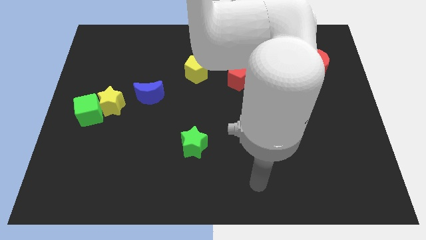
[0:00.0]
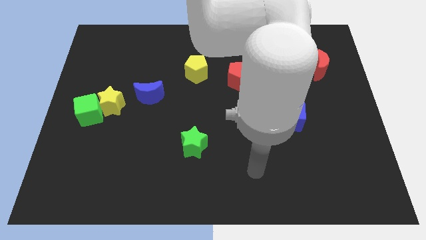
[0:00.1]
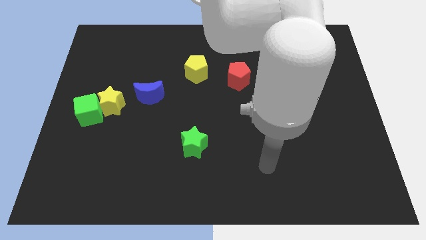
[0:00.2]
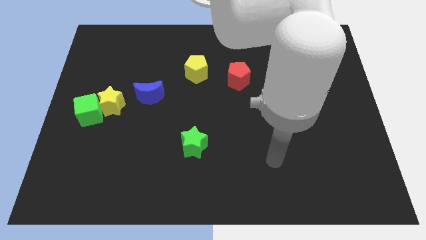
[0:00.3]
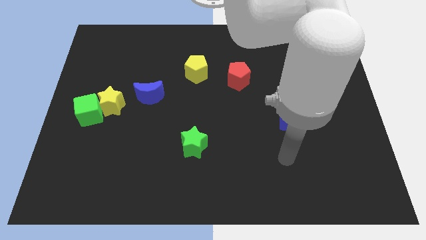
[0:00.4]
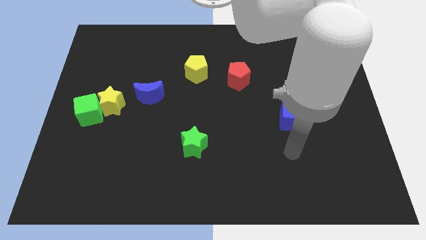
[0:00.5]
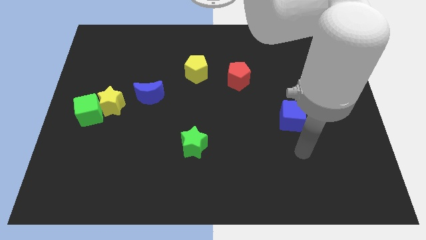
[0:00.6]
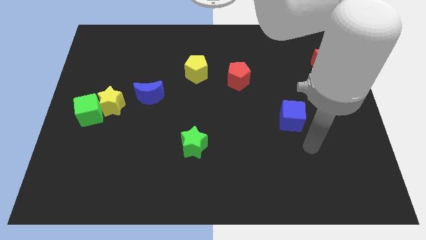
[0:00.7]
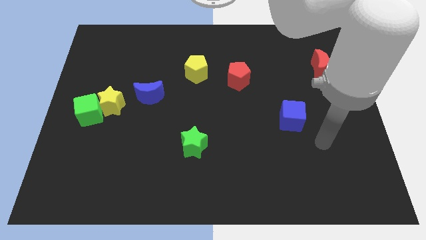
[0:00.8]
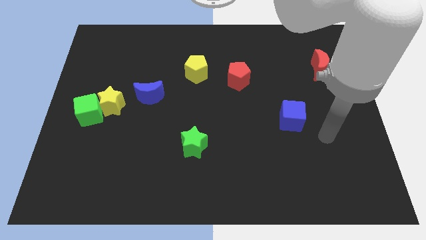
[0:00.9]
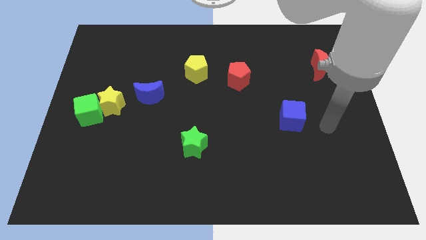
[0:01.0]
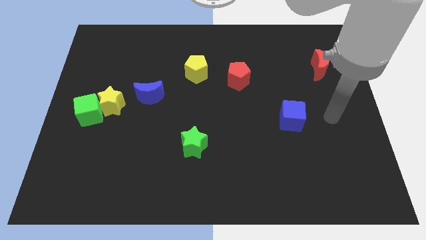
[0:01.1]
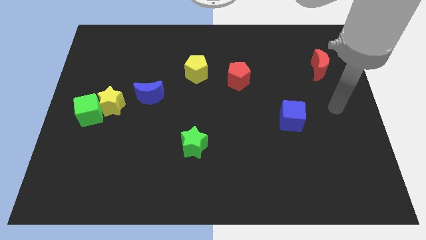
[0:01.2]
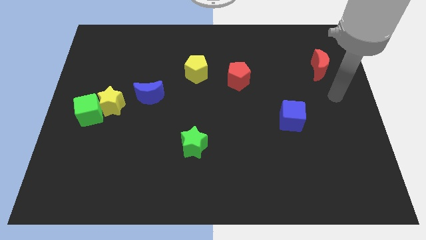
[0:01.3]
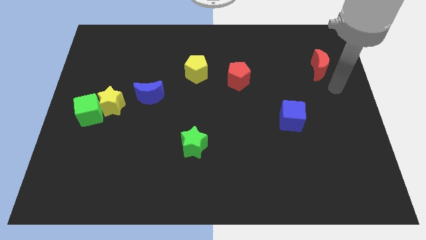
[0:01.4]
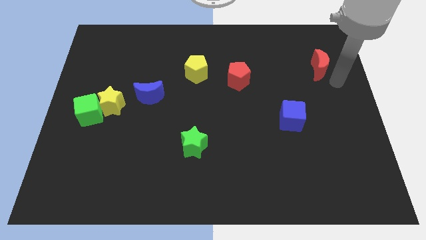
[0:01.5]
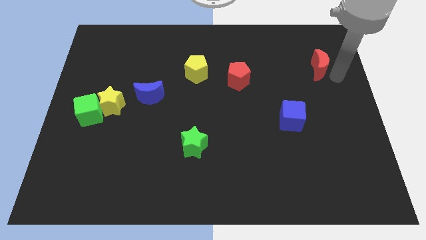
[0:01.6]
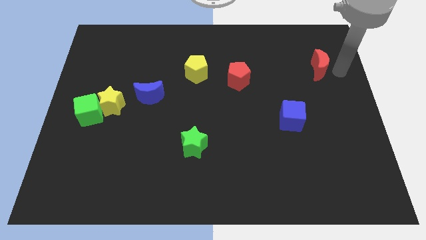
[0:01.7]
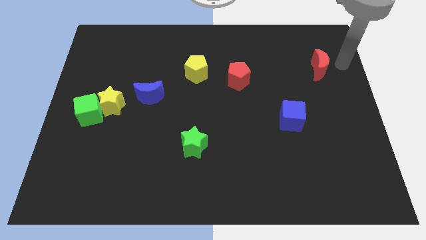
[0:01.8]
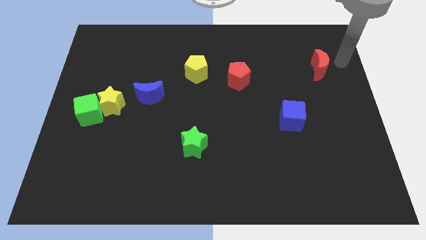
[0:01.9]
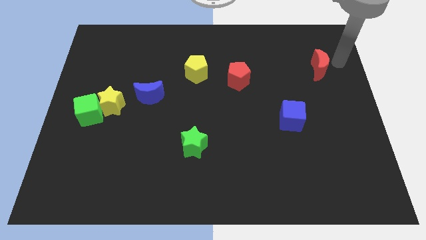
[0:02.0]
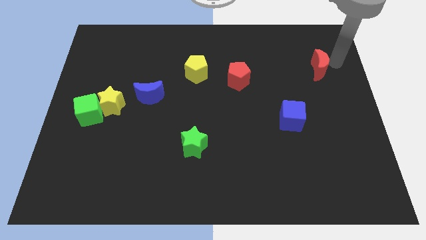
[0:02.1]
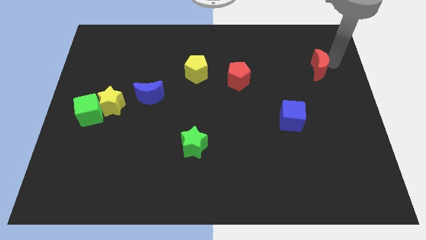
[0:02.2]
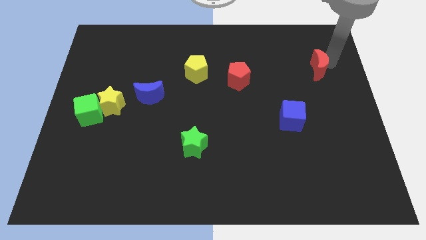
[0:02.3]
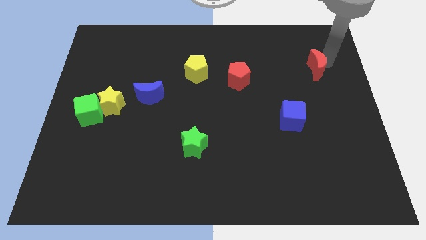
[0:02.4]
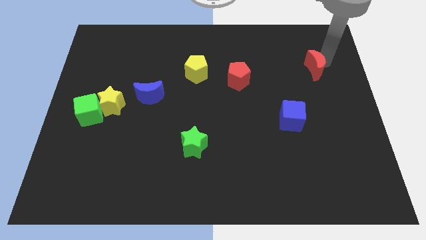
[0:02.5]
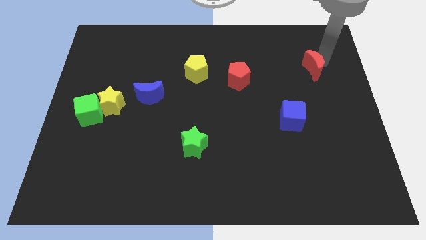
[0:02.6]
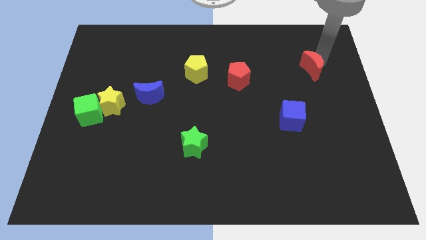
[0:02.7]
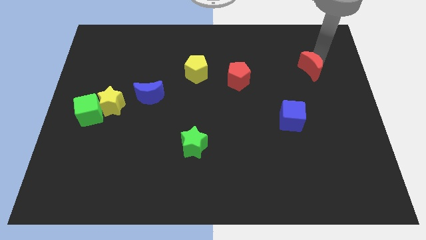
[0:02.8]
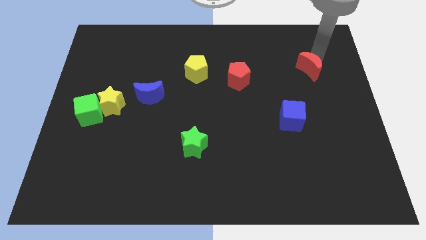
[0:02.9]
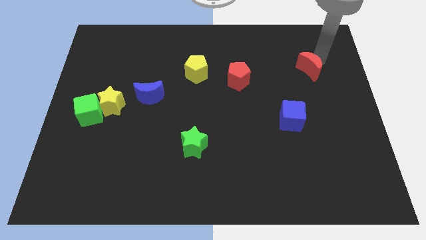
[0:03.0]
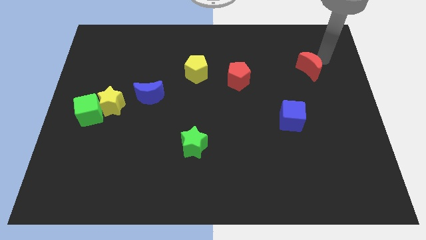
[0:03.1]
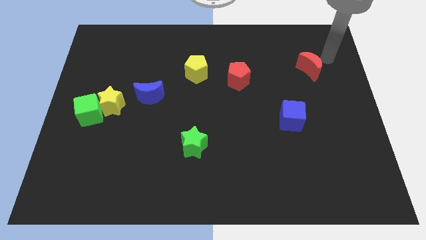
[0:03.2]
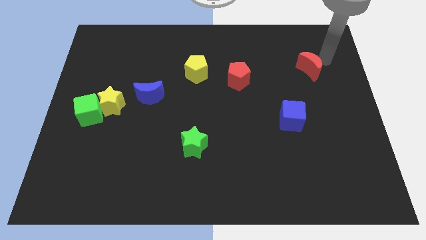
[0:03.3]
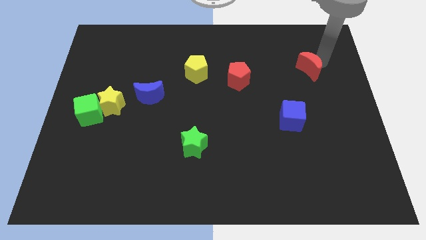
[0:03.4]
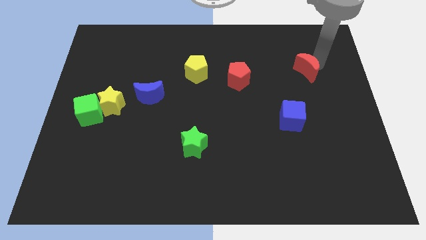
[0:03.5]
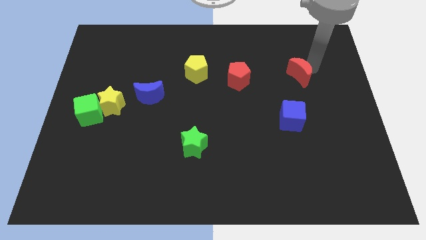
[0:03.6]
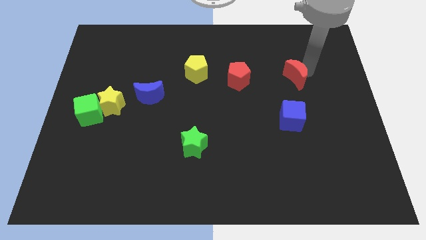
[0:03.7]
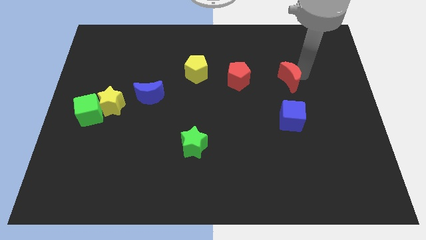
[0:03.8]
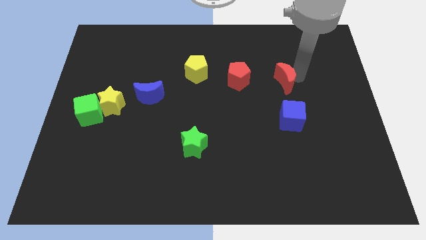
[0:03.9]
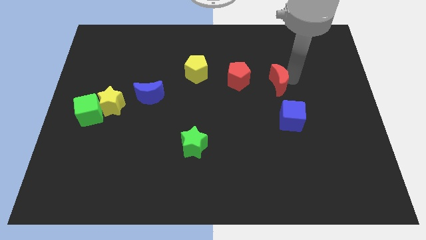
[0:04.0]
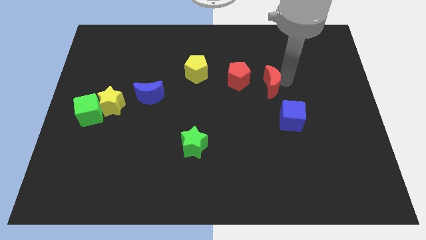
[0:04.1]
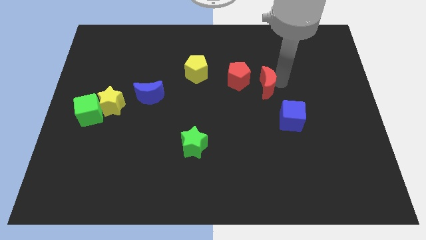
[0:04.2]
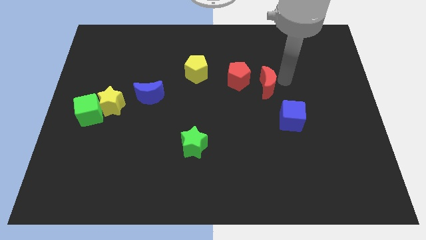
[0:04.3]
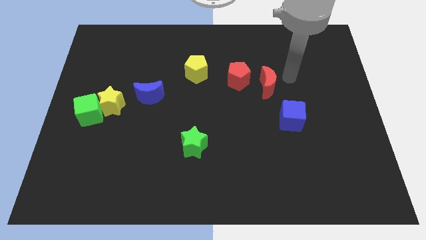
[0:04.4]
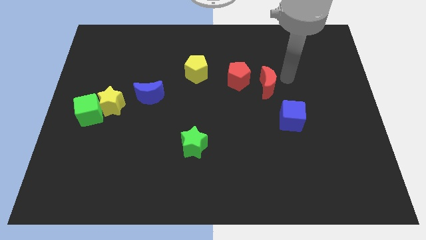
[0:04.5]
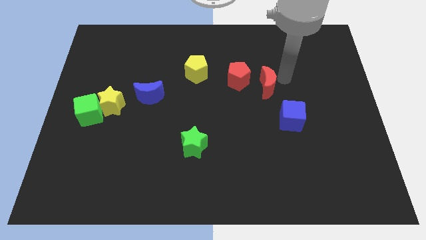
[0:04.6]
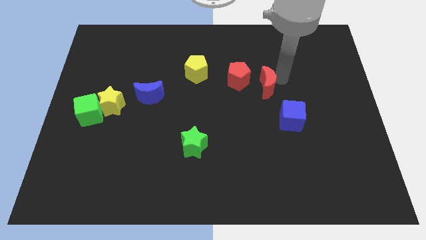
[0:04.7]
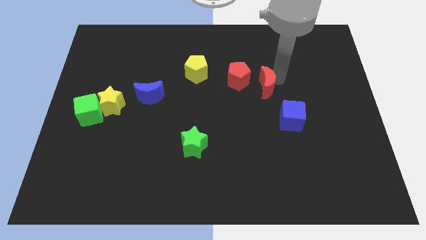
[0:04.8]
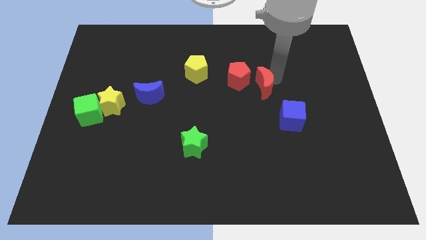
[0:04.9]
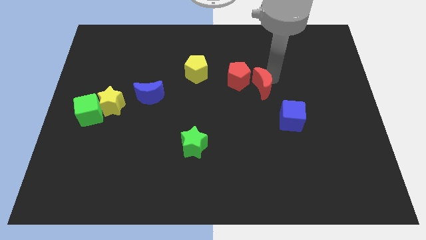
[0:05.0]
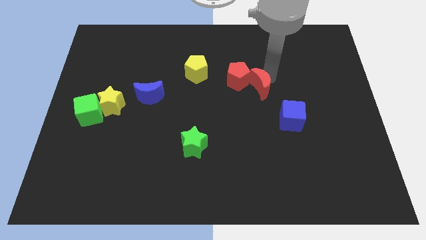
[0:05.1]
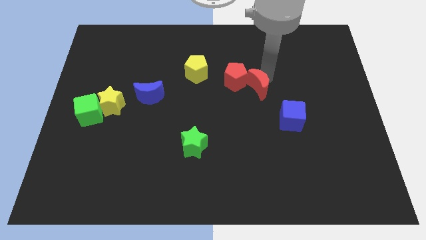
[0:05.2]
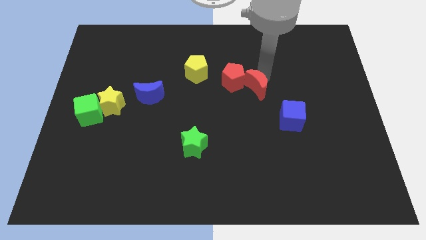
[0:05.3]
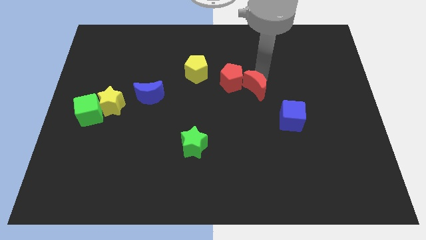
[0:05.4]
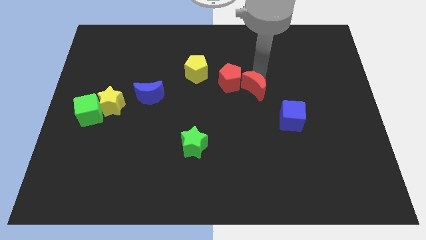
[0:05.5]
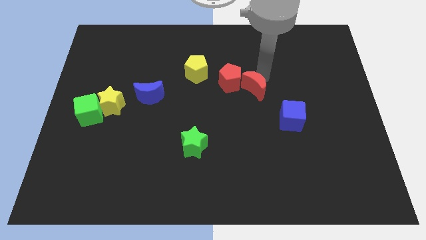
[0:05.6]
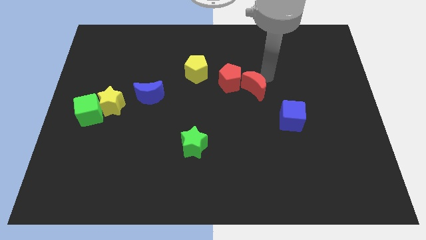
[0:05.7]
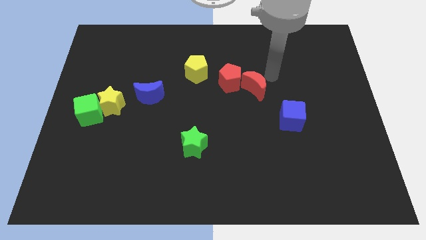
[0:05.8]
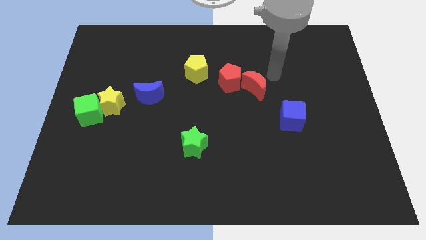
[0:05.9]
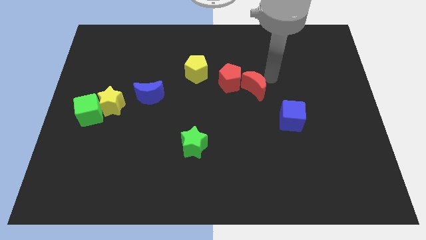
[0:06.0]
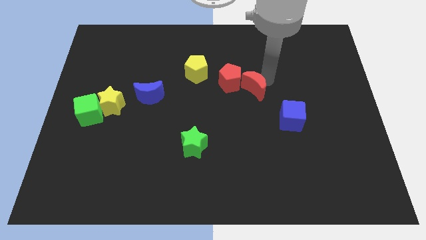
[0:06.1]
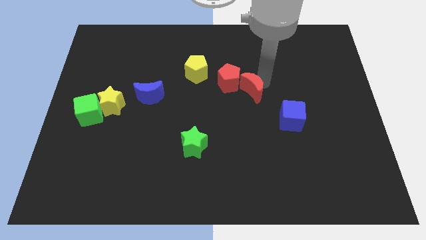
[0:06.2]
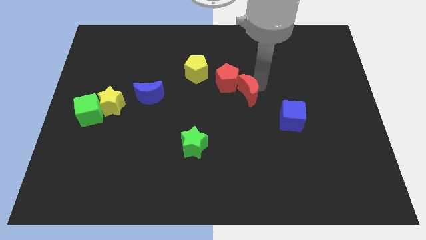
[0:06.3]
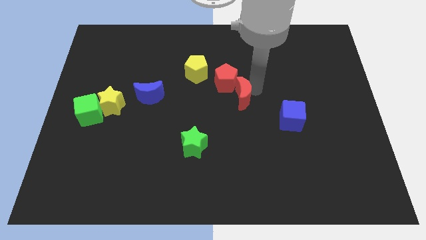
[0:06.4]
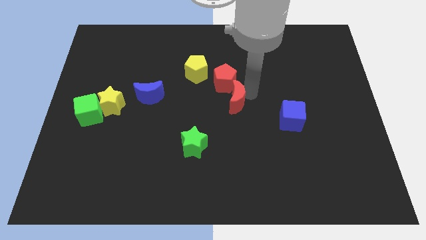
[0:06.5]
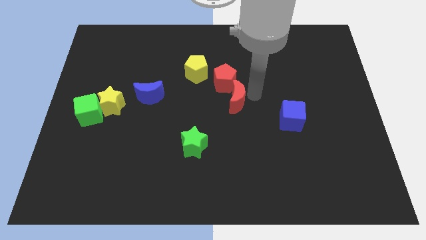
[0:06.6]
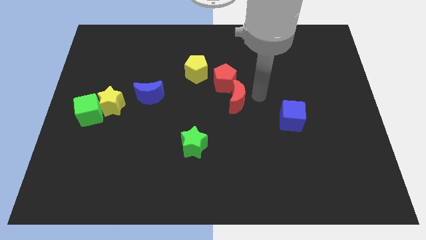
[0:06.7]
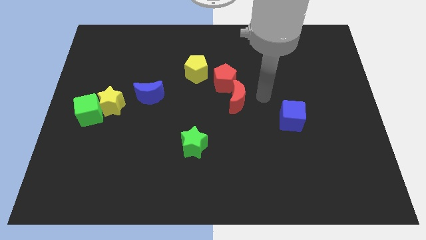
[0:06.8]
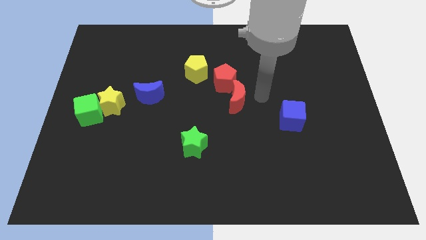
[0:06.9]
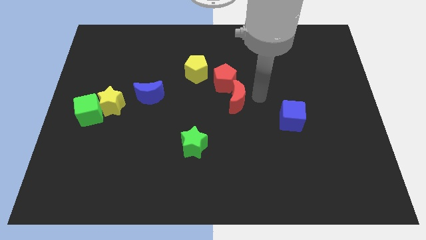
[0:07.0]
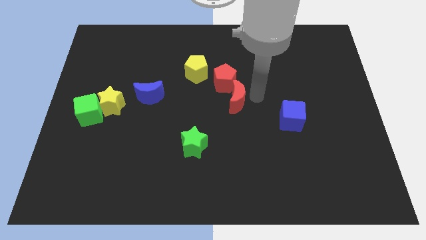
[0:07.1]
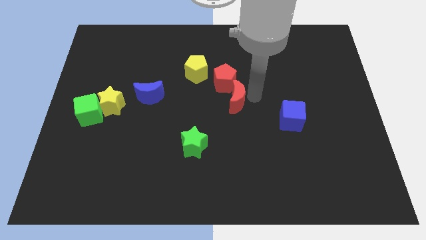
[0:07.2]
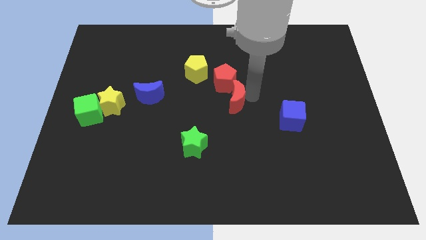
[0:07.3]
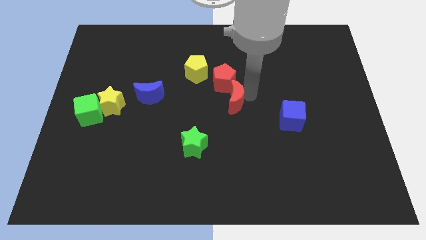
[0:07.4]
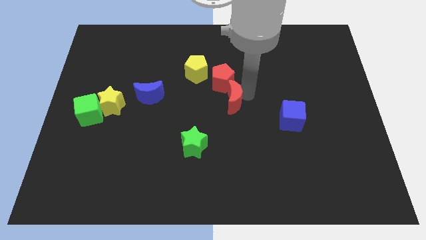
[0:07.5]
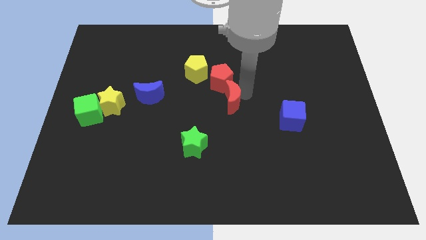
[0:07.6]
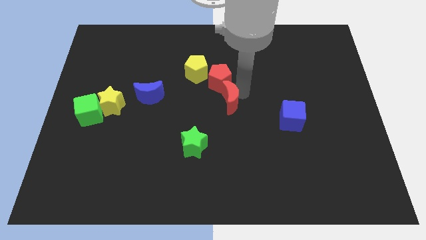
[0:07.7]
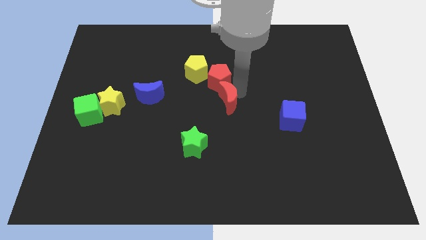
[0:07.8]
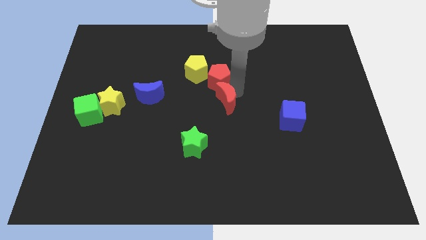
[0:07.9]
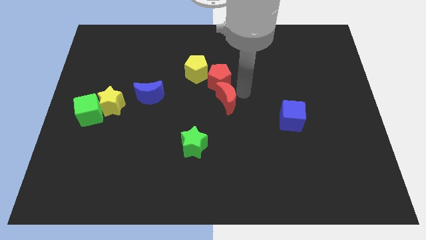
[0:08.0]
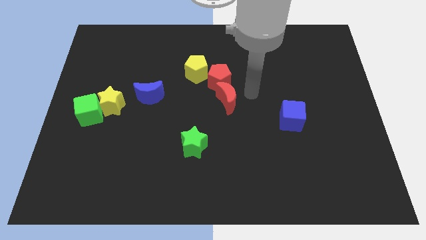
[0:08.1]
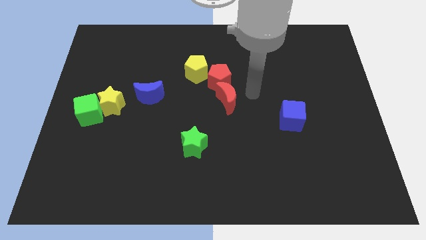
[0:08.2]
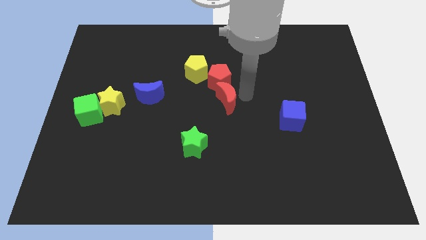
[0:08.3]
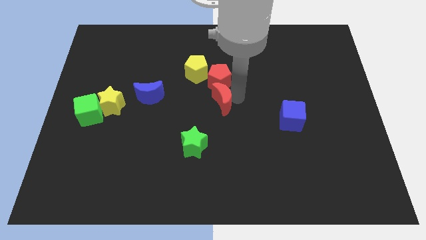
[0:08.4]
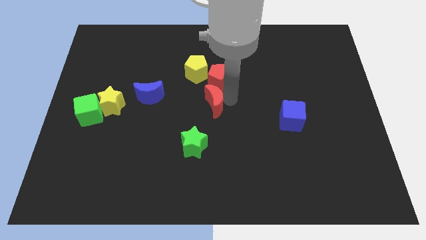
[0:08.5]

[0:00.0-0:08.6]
put the red moon above the green star
